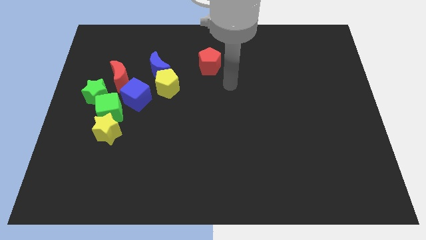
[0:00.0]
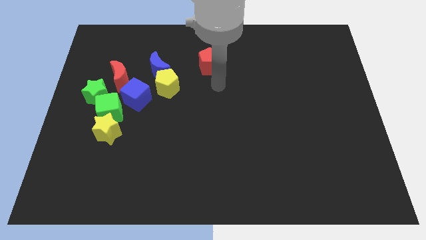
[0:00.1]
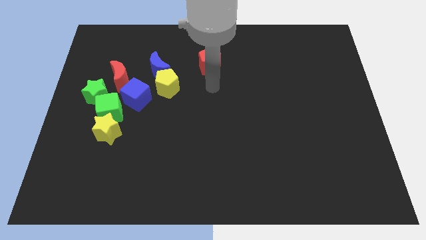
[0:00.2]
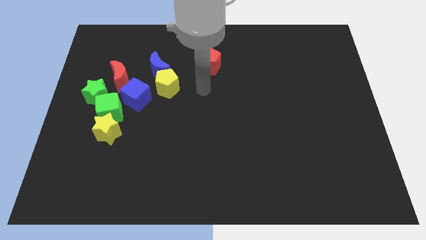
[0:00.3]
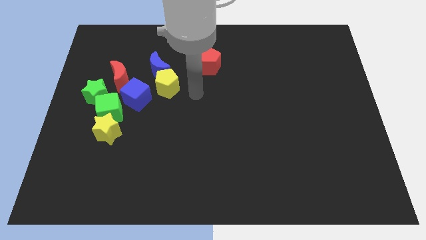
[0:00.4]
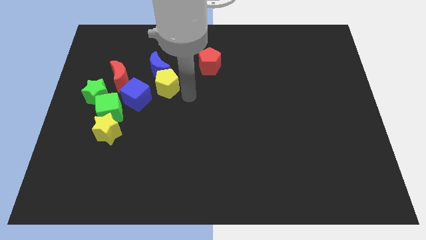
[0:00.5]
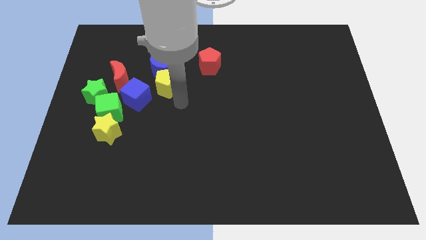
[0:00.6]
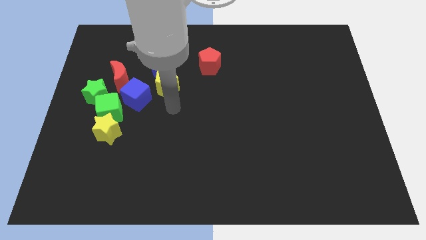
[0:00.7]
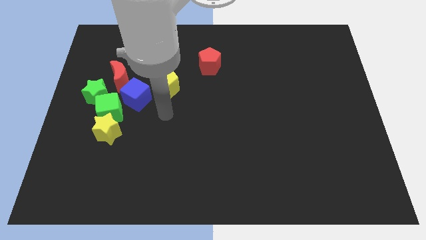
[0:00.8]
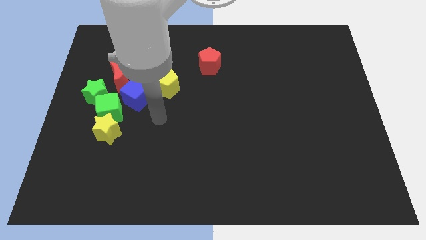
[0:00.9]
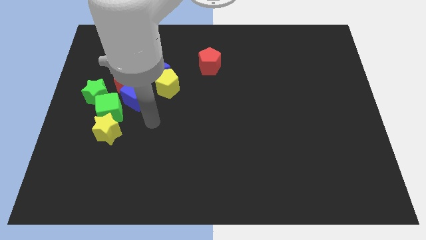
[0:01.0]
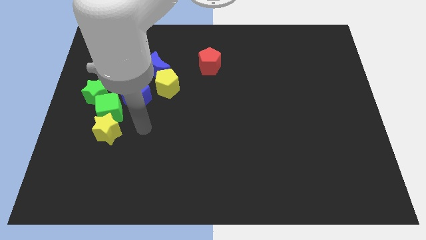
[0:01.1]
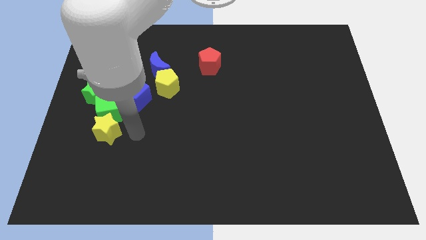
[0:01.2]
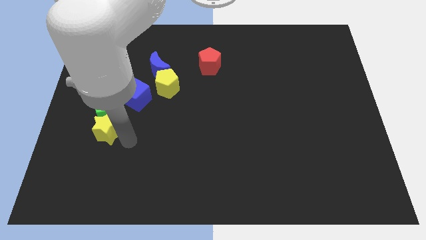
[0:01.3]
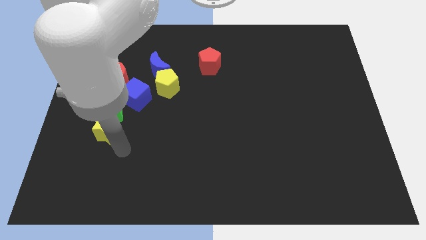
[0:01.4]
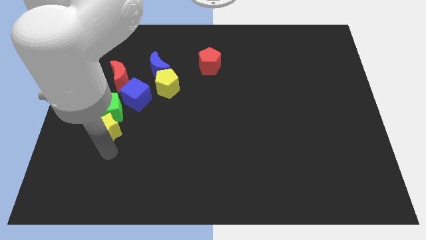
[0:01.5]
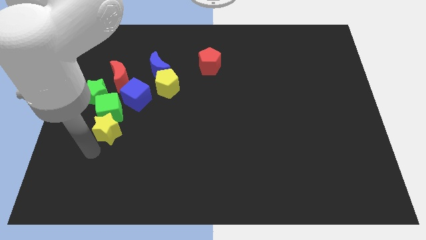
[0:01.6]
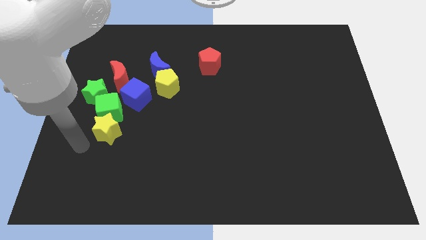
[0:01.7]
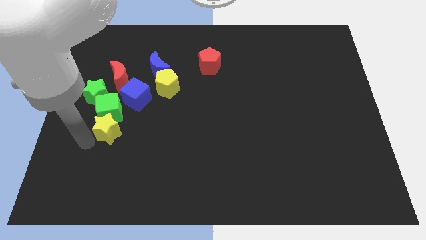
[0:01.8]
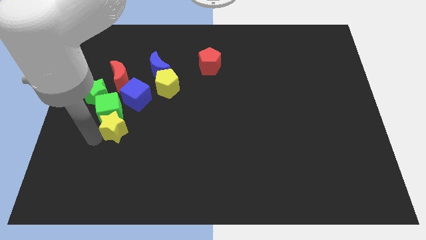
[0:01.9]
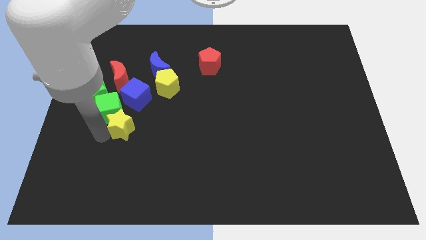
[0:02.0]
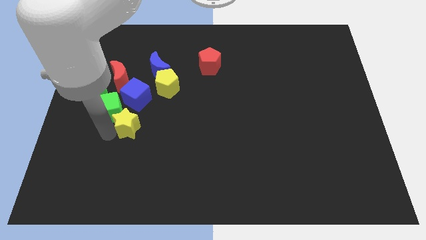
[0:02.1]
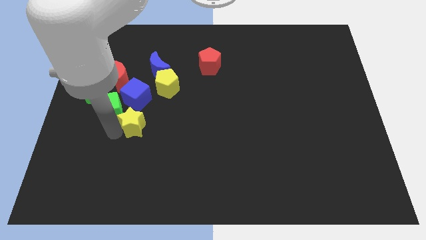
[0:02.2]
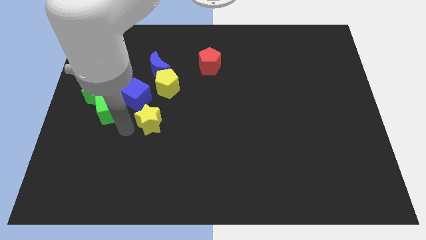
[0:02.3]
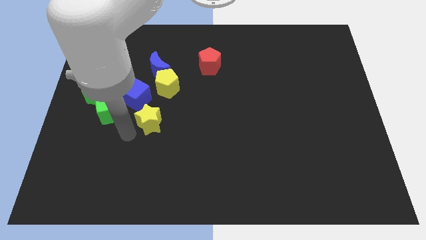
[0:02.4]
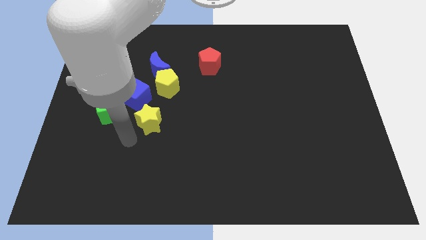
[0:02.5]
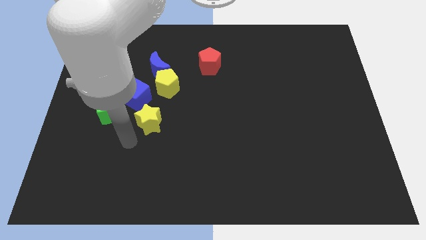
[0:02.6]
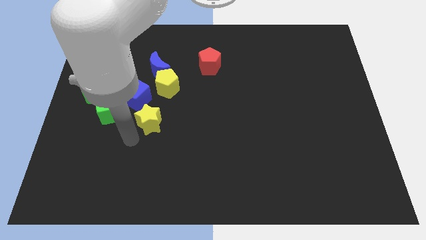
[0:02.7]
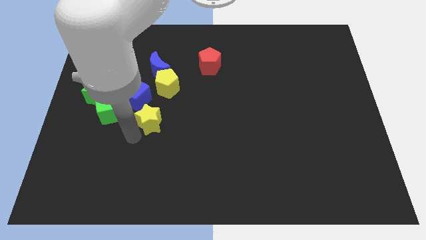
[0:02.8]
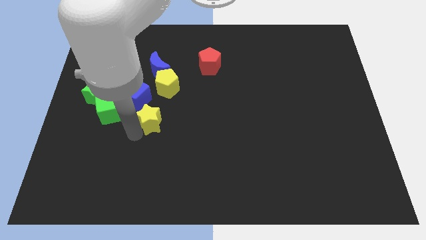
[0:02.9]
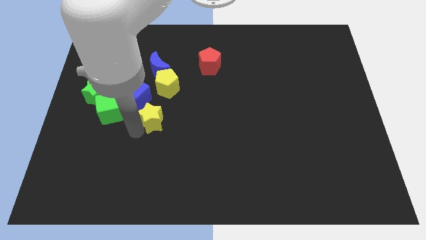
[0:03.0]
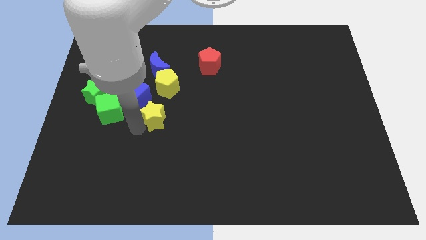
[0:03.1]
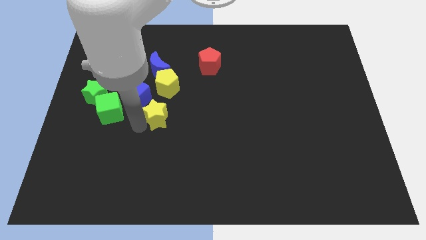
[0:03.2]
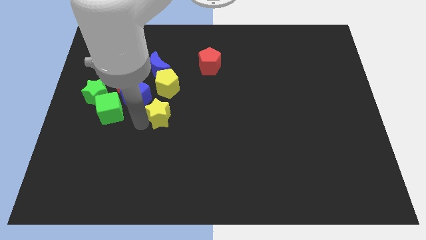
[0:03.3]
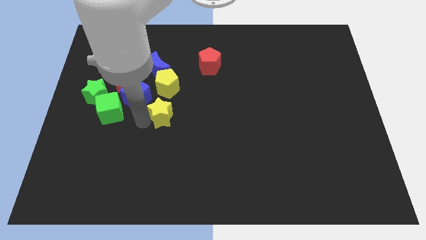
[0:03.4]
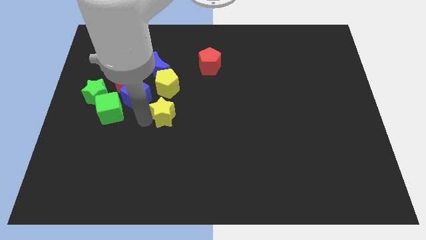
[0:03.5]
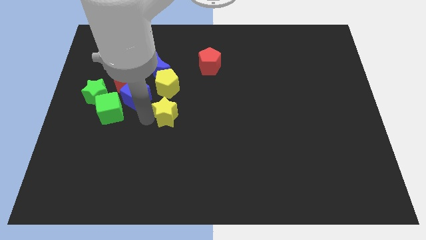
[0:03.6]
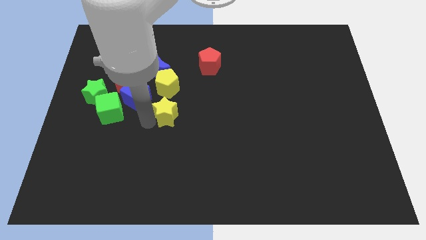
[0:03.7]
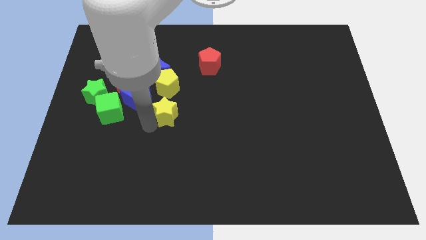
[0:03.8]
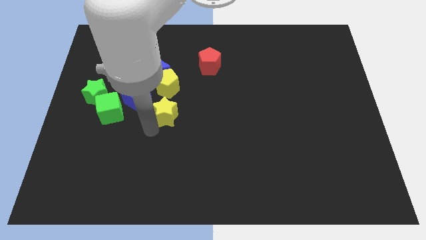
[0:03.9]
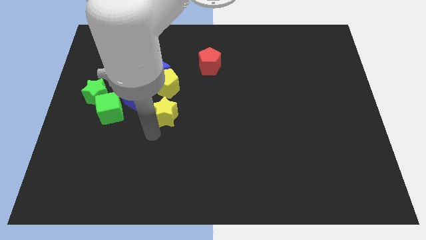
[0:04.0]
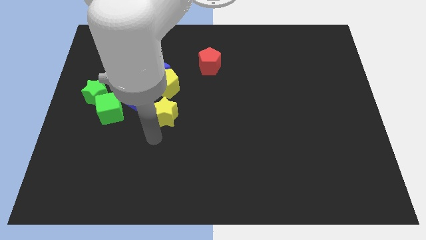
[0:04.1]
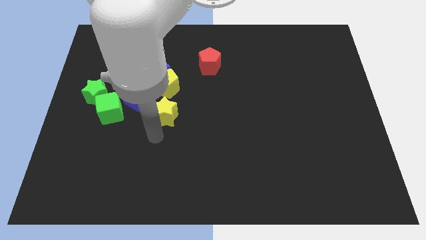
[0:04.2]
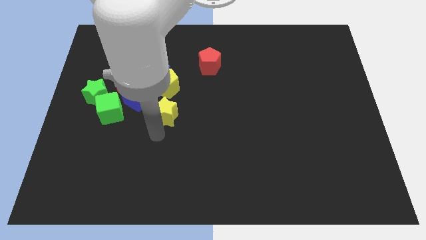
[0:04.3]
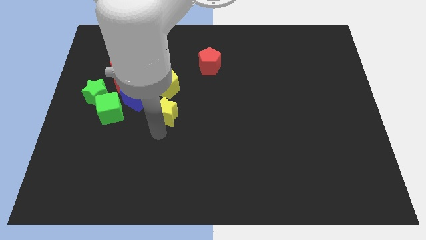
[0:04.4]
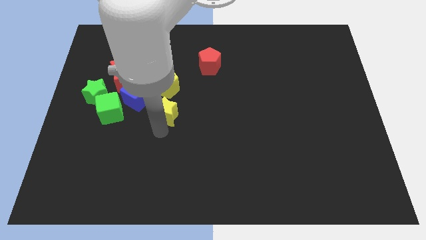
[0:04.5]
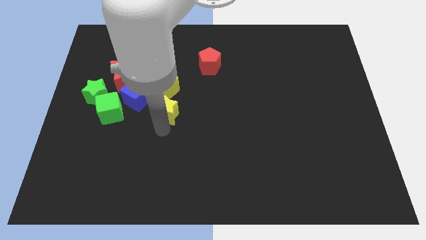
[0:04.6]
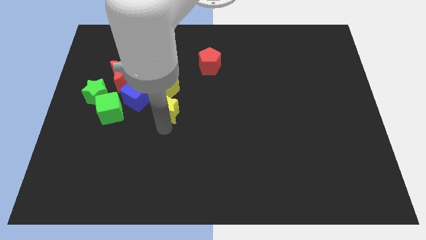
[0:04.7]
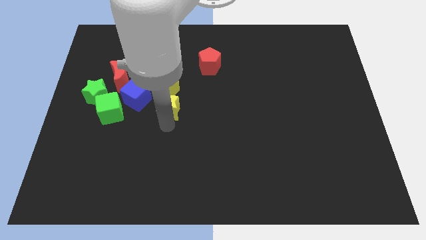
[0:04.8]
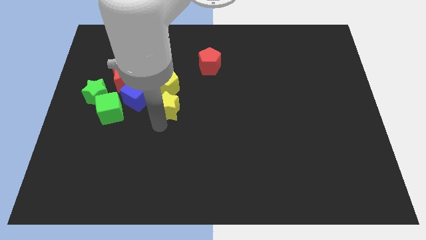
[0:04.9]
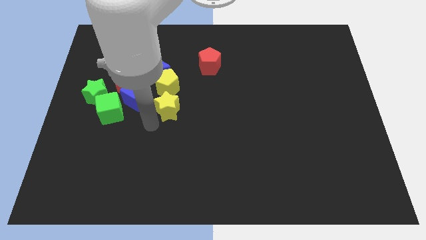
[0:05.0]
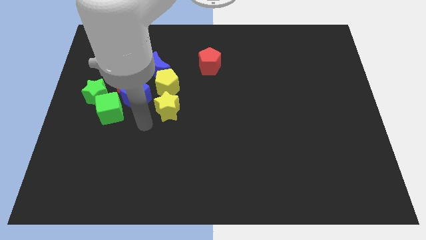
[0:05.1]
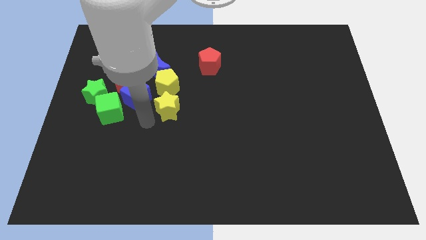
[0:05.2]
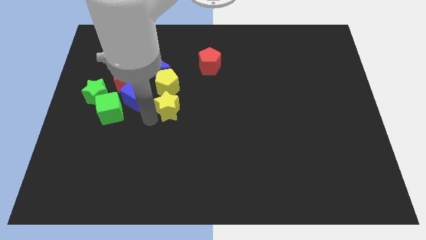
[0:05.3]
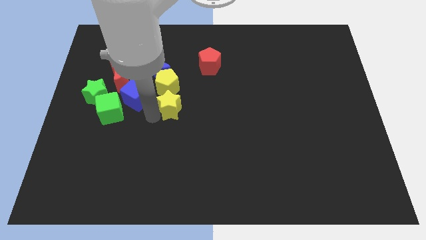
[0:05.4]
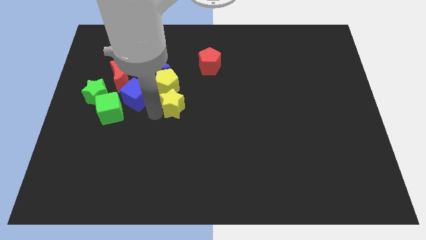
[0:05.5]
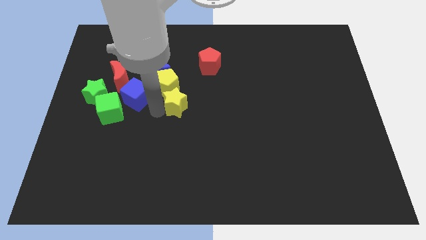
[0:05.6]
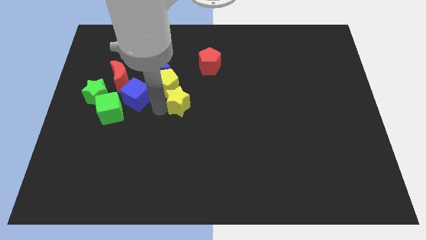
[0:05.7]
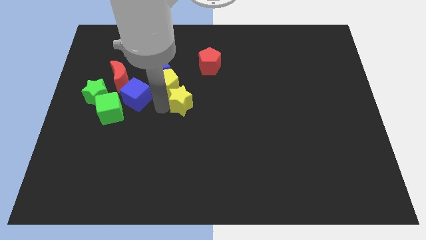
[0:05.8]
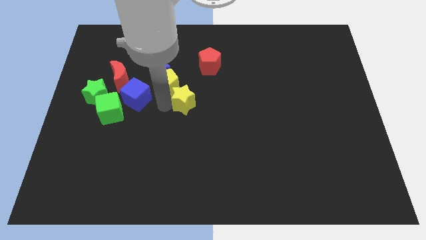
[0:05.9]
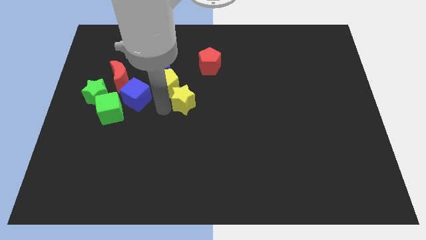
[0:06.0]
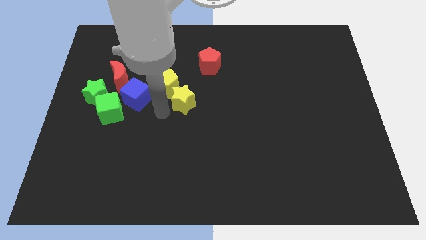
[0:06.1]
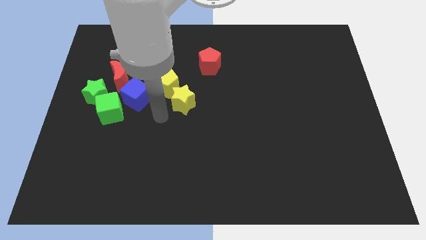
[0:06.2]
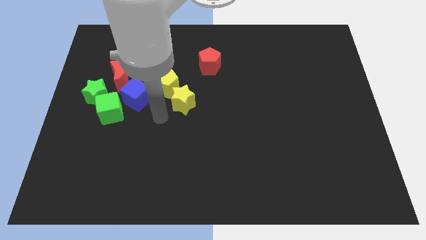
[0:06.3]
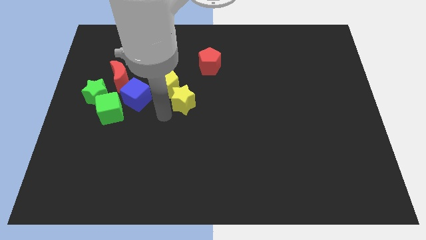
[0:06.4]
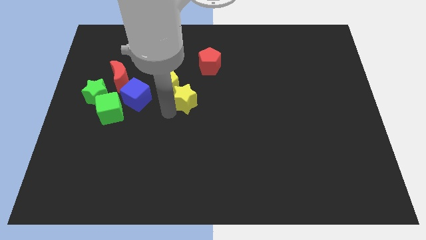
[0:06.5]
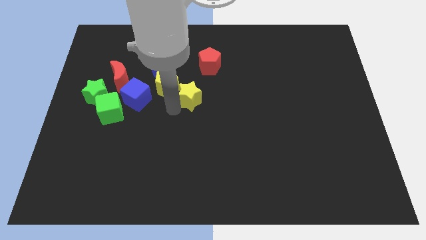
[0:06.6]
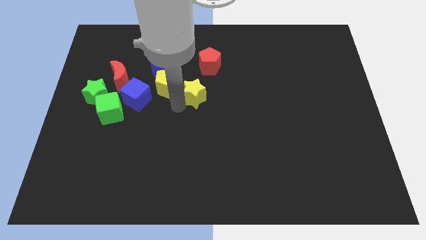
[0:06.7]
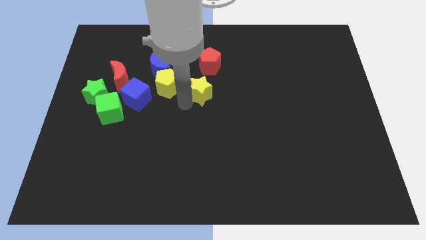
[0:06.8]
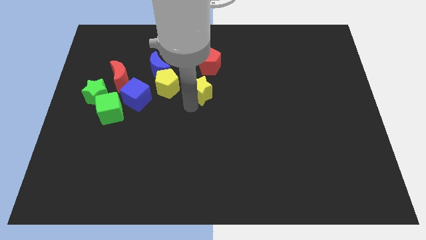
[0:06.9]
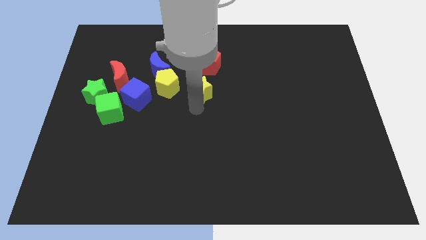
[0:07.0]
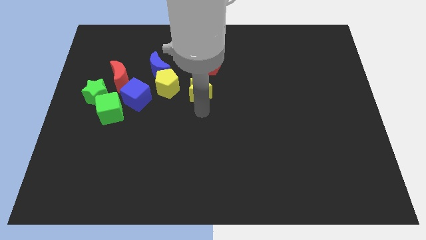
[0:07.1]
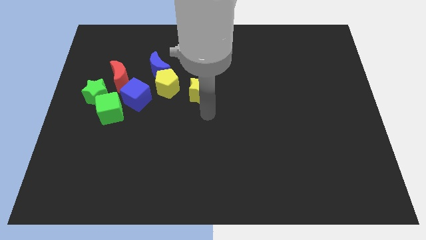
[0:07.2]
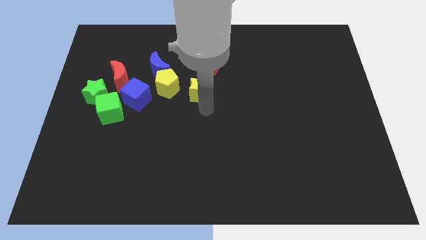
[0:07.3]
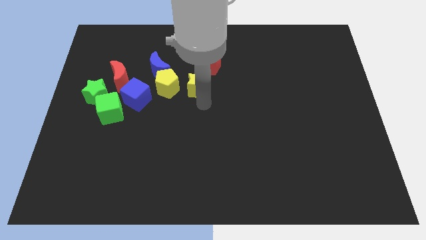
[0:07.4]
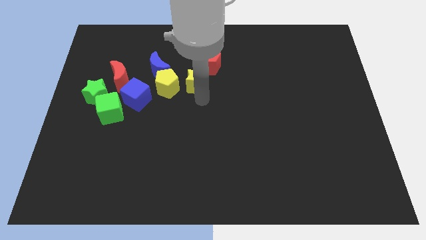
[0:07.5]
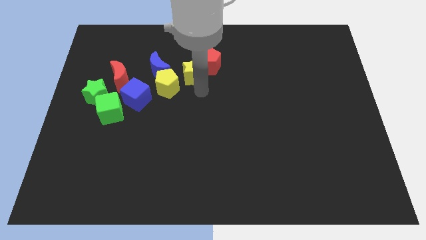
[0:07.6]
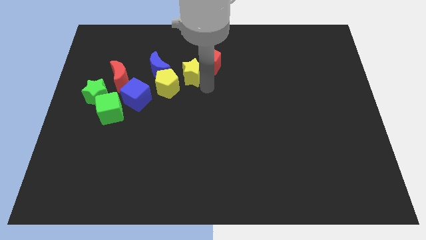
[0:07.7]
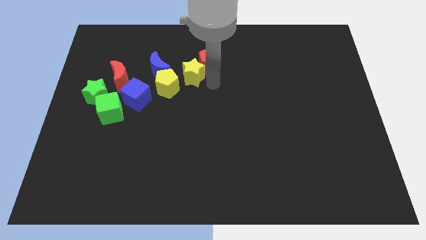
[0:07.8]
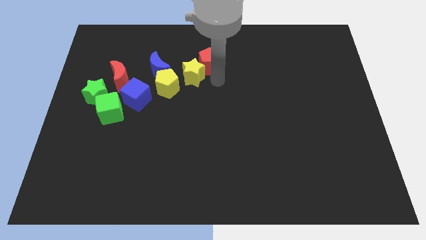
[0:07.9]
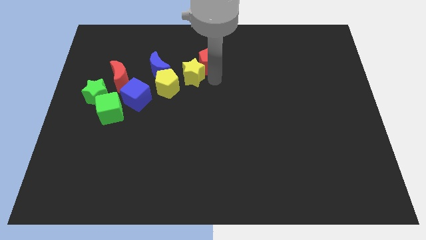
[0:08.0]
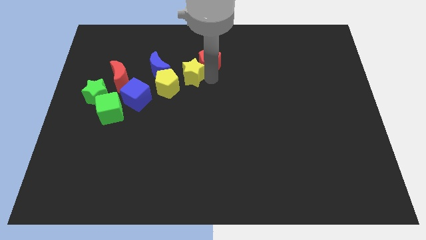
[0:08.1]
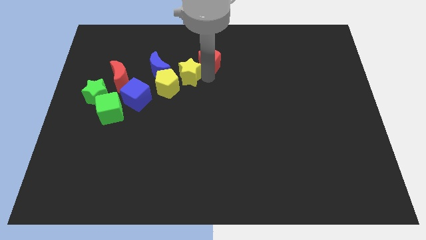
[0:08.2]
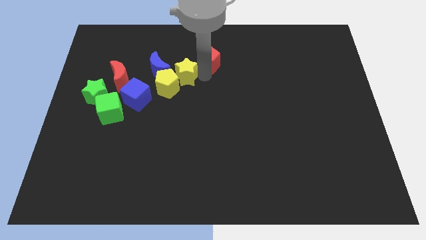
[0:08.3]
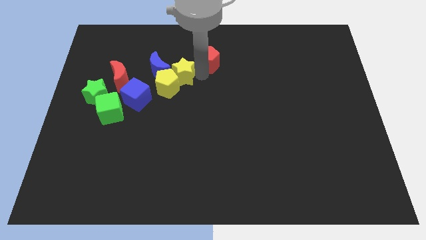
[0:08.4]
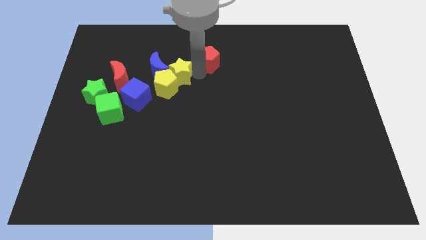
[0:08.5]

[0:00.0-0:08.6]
put the yellow star next to the blue moon
